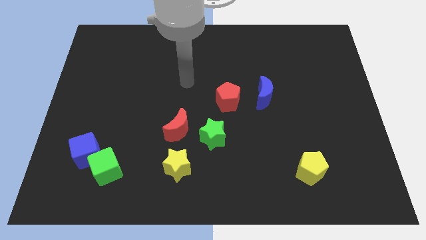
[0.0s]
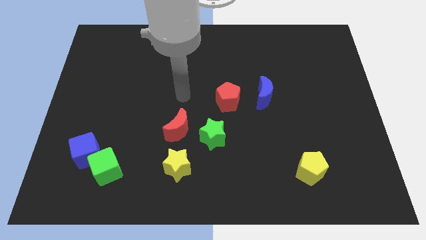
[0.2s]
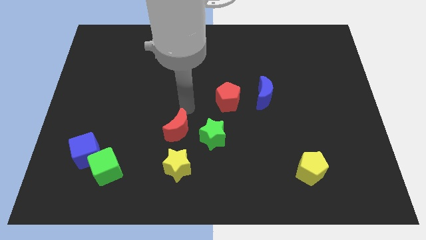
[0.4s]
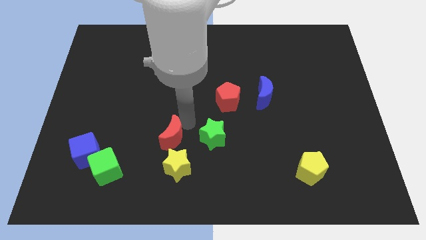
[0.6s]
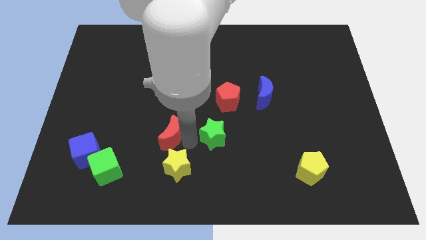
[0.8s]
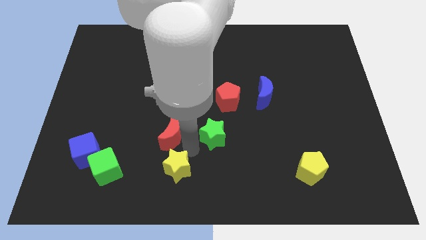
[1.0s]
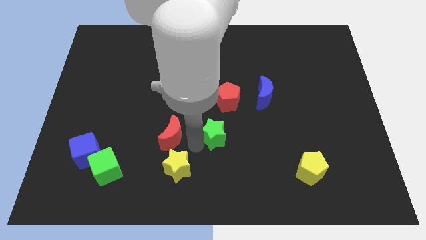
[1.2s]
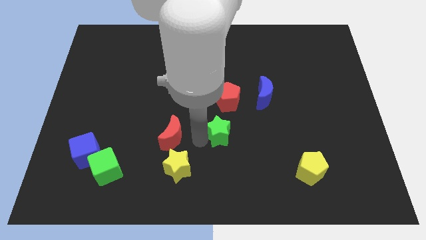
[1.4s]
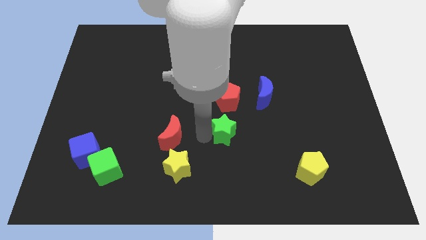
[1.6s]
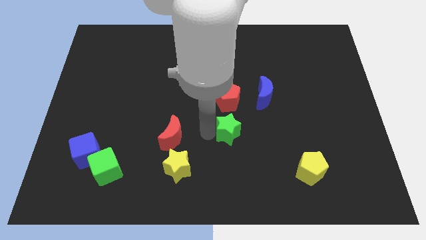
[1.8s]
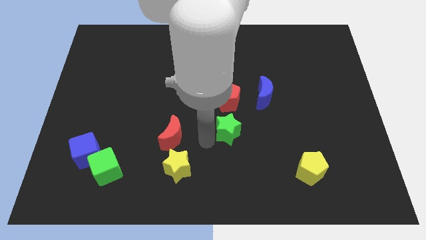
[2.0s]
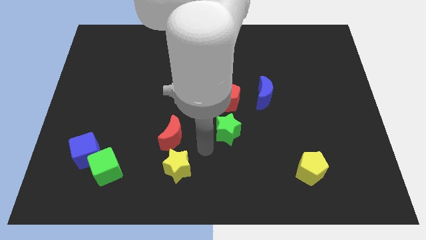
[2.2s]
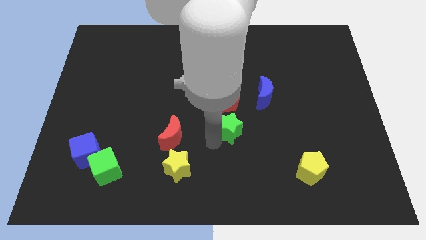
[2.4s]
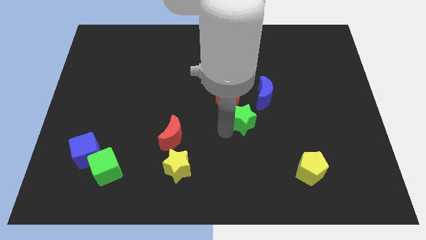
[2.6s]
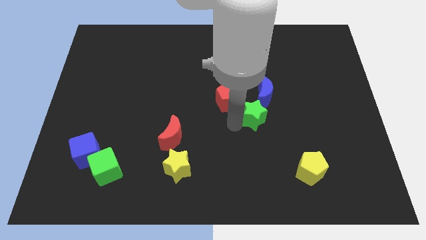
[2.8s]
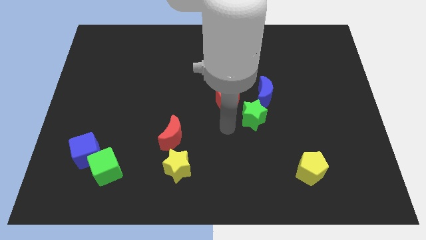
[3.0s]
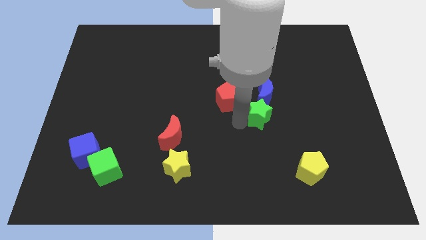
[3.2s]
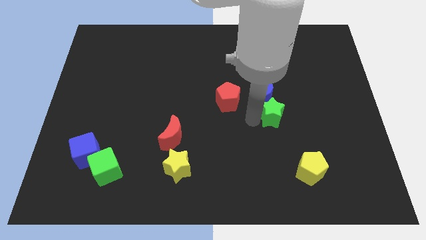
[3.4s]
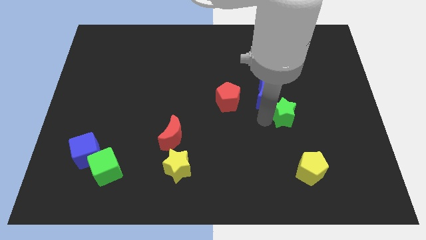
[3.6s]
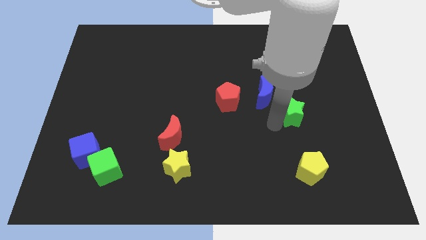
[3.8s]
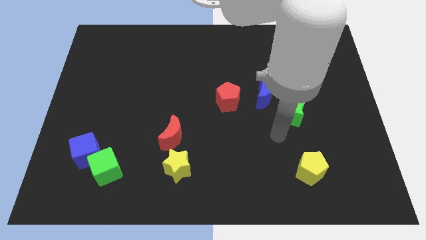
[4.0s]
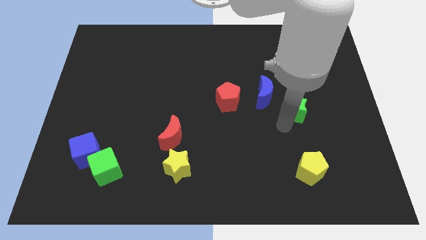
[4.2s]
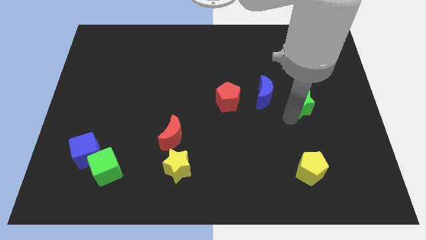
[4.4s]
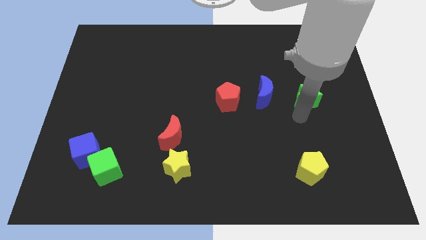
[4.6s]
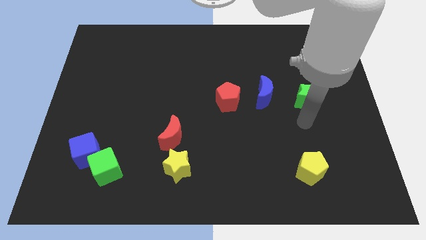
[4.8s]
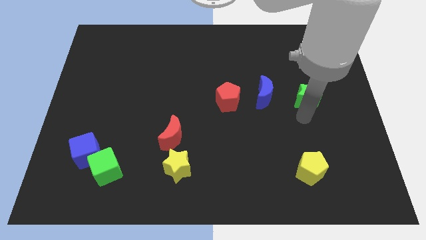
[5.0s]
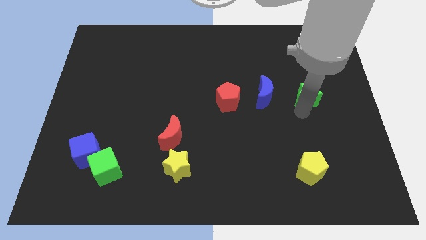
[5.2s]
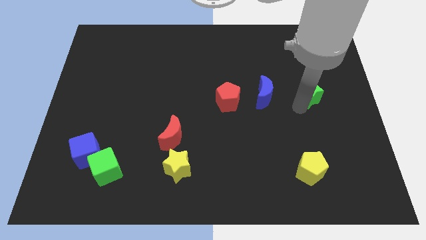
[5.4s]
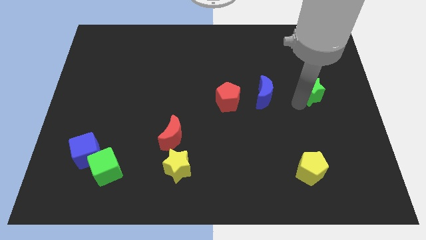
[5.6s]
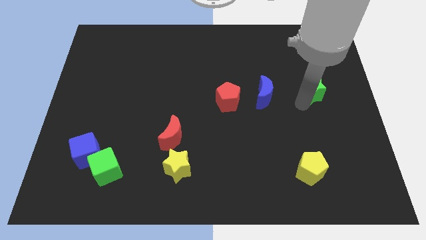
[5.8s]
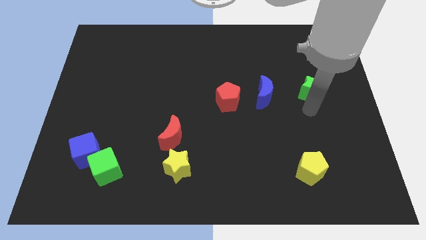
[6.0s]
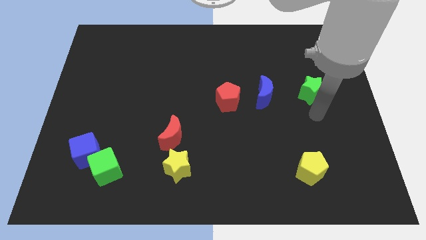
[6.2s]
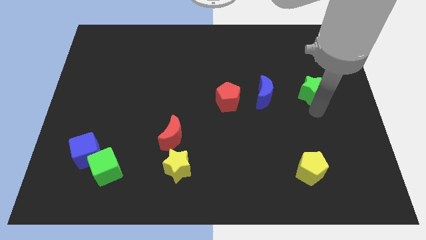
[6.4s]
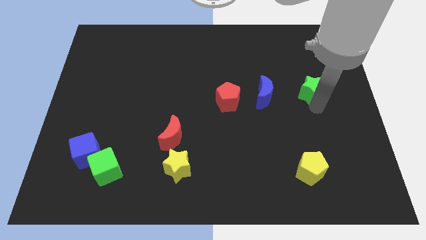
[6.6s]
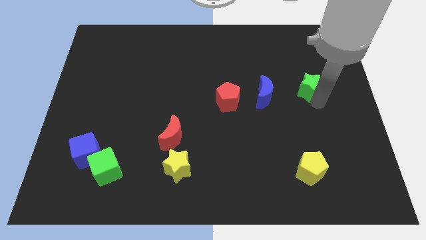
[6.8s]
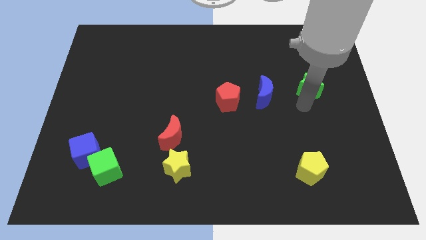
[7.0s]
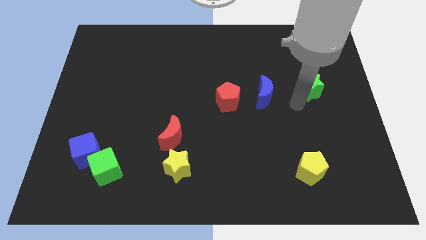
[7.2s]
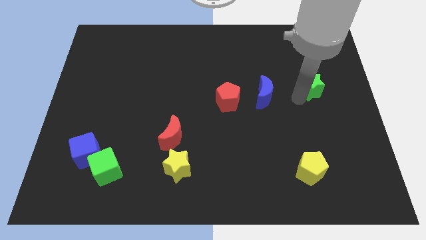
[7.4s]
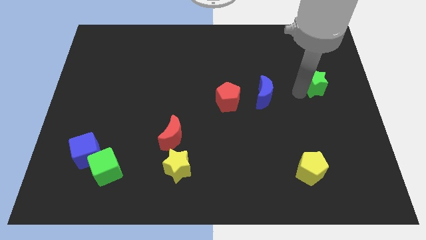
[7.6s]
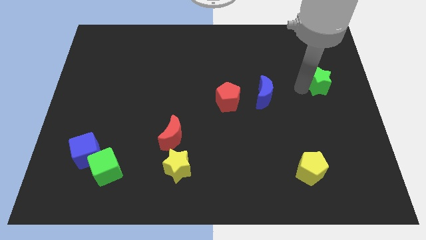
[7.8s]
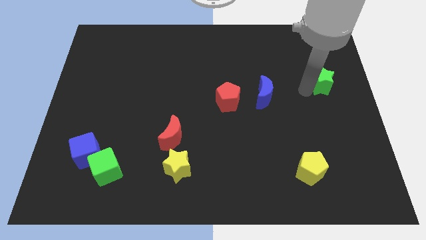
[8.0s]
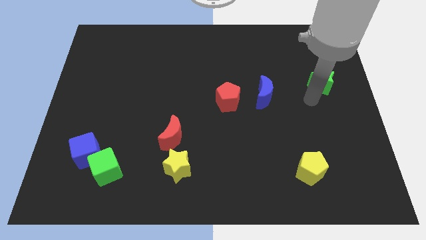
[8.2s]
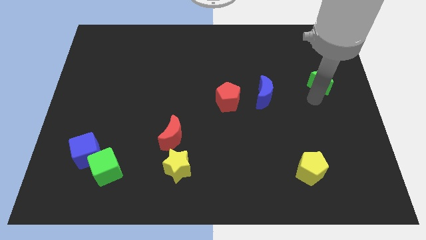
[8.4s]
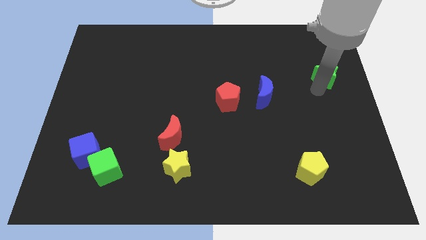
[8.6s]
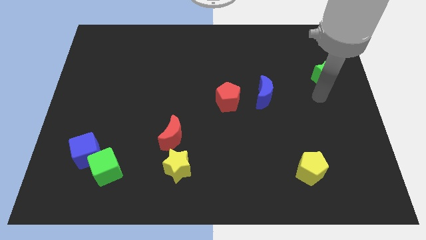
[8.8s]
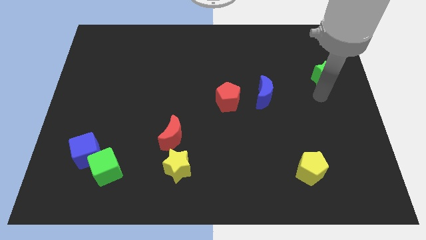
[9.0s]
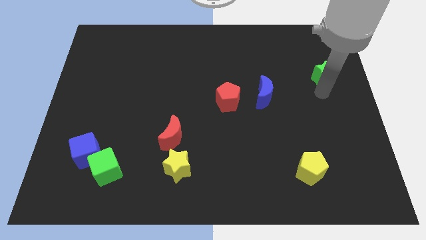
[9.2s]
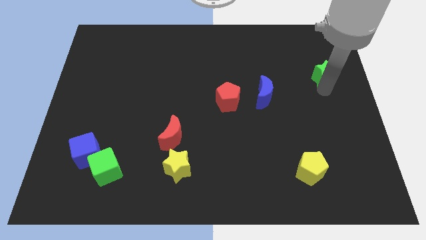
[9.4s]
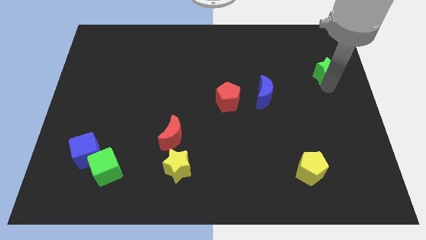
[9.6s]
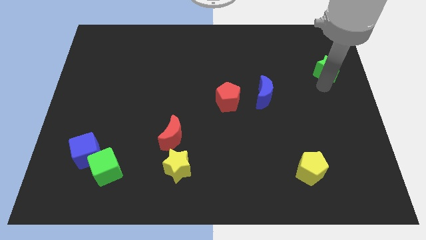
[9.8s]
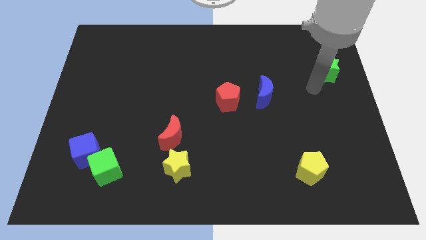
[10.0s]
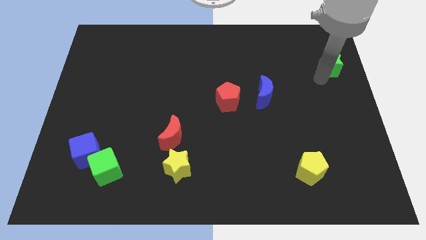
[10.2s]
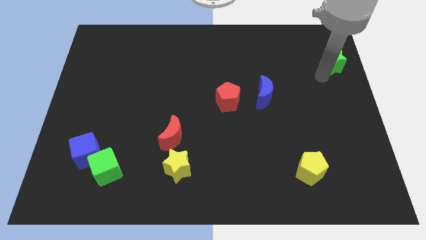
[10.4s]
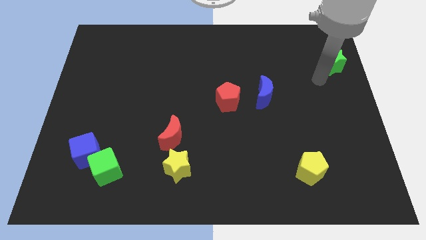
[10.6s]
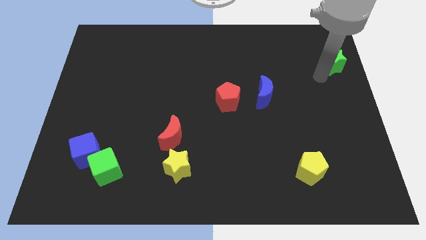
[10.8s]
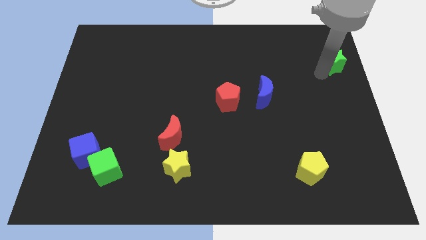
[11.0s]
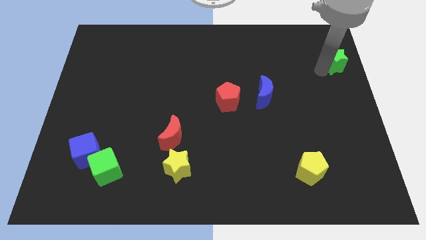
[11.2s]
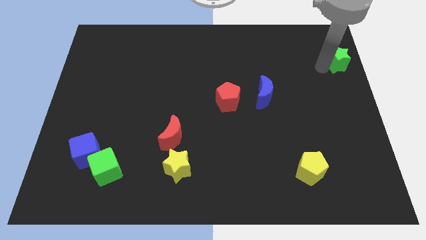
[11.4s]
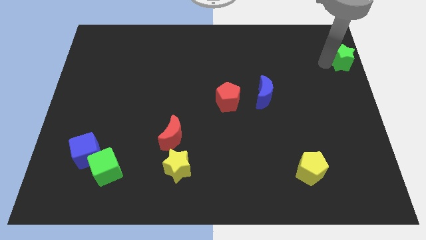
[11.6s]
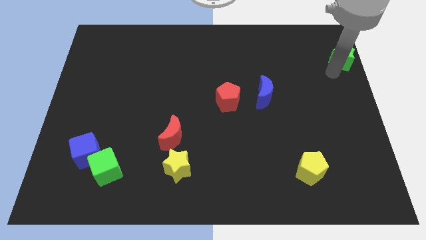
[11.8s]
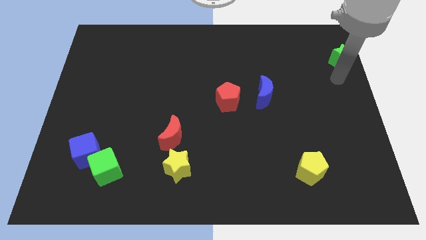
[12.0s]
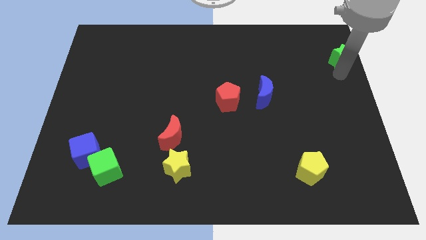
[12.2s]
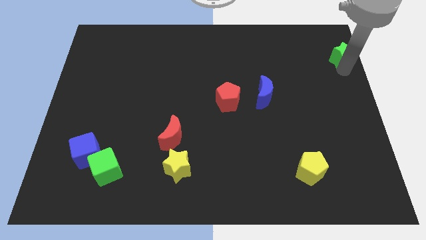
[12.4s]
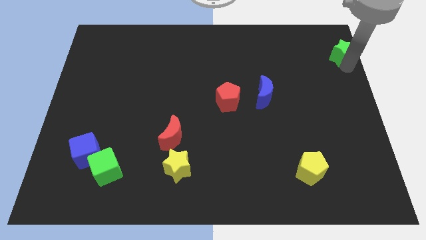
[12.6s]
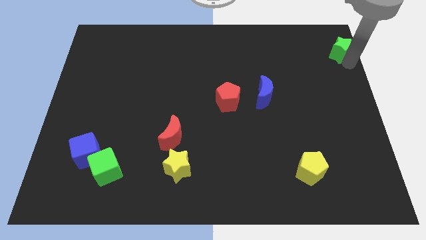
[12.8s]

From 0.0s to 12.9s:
push the green star to the top right of the board
